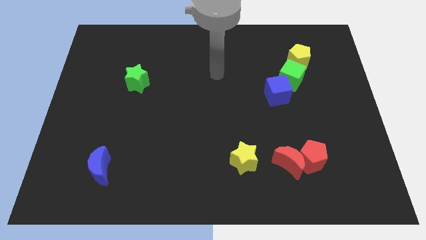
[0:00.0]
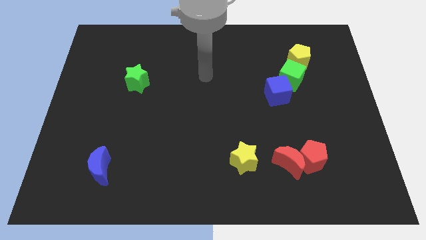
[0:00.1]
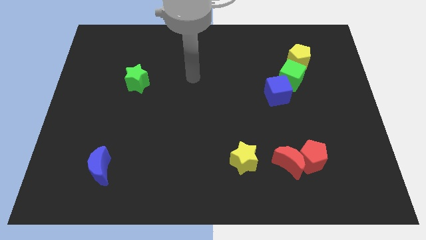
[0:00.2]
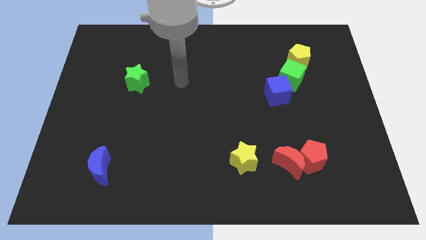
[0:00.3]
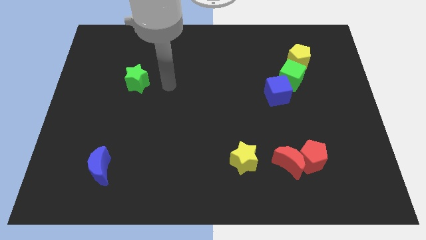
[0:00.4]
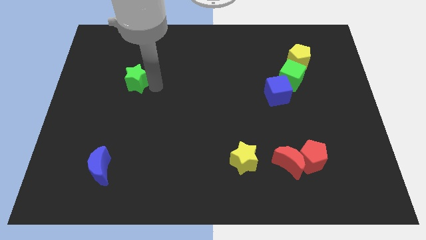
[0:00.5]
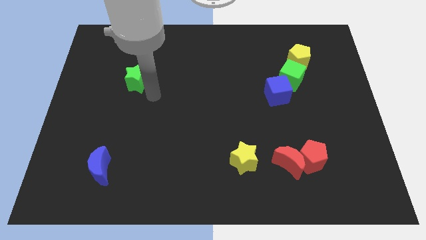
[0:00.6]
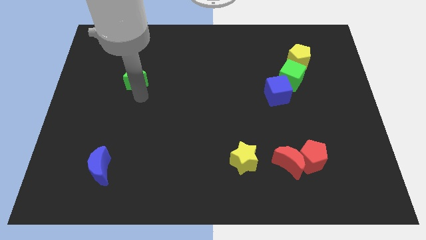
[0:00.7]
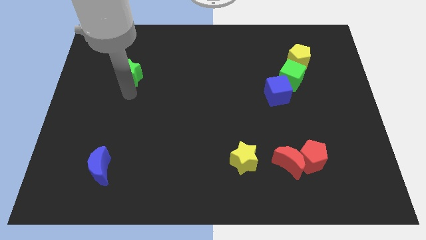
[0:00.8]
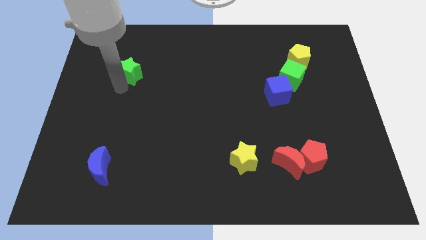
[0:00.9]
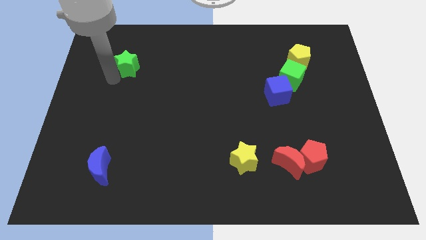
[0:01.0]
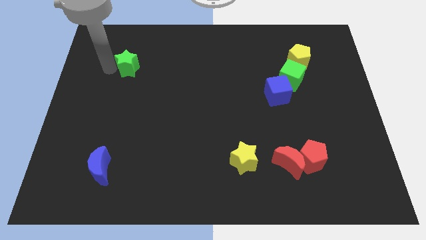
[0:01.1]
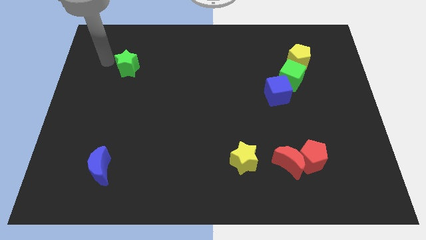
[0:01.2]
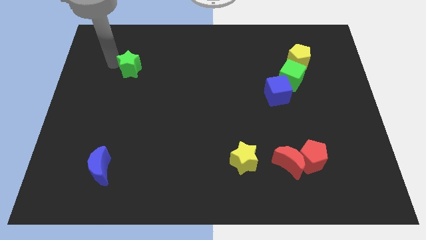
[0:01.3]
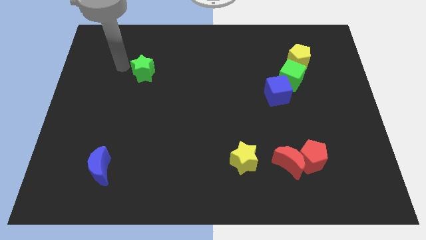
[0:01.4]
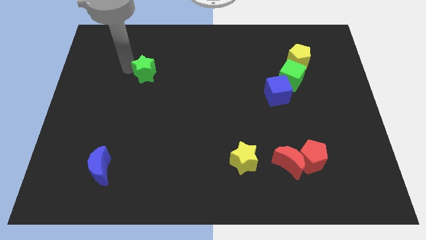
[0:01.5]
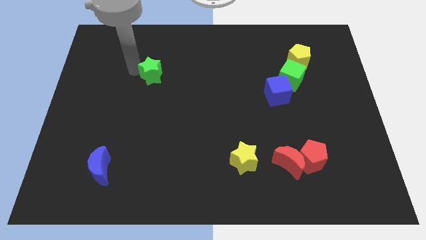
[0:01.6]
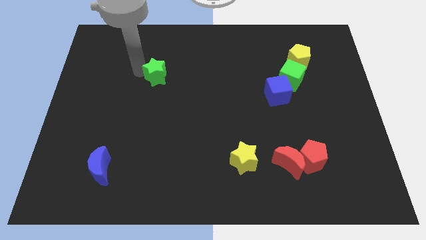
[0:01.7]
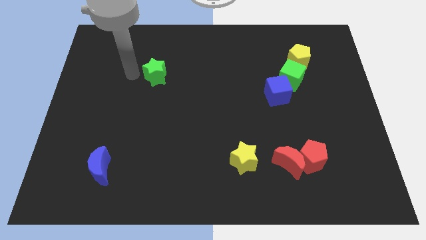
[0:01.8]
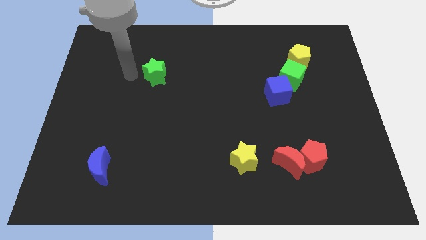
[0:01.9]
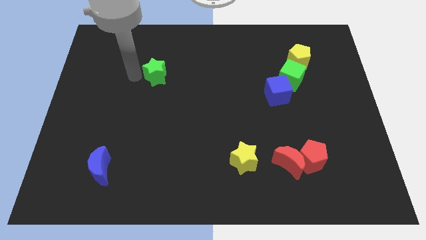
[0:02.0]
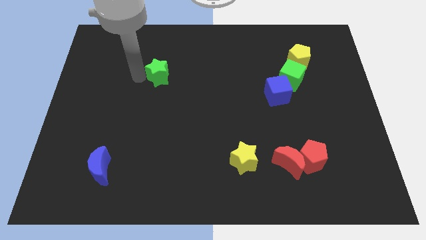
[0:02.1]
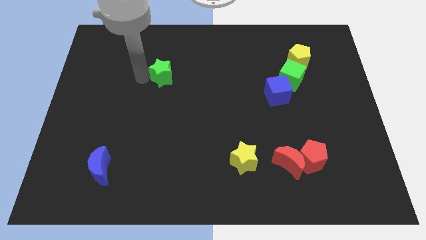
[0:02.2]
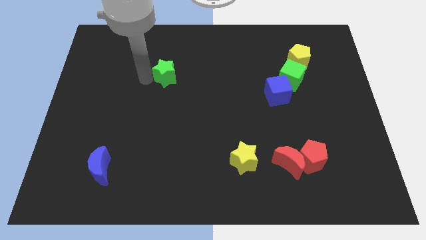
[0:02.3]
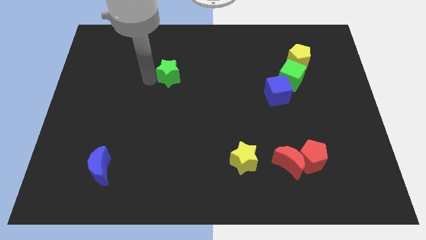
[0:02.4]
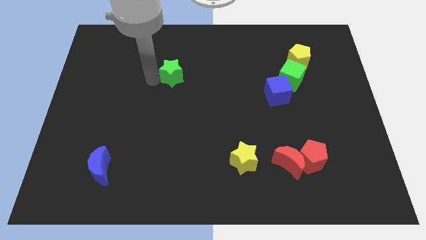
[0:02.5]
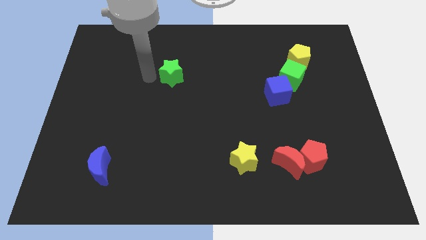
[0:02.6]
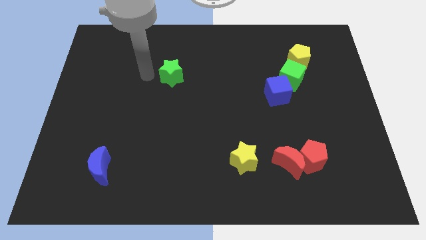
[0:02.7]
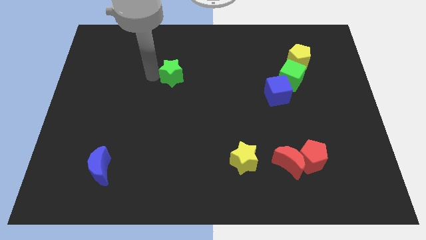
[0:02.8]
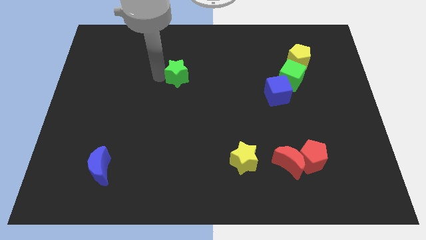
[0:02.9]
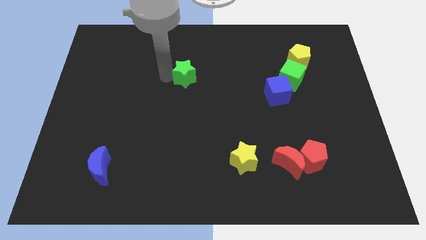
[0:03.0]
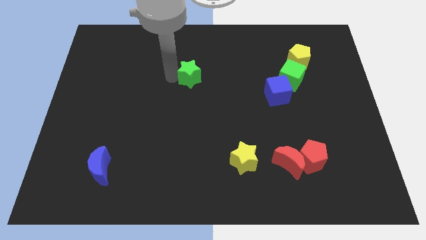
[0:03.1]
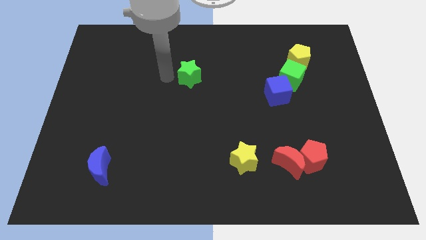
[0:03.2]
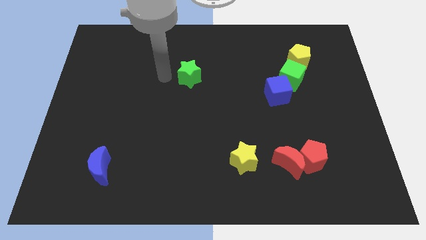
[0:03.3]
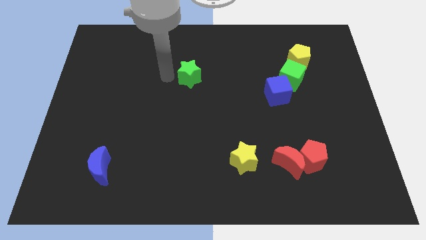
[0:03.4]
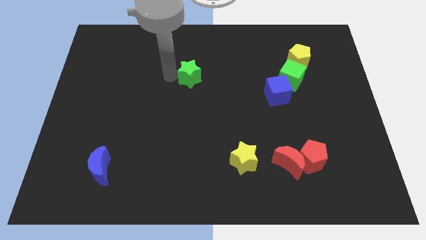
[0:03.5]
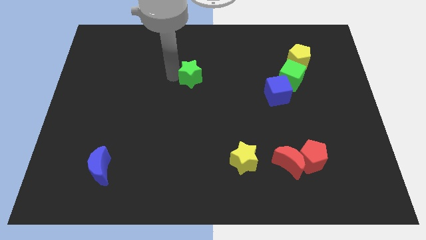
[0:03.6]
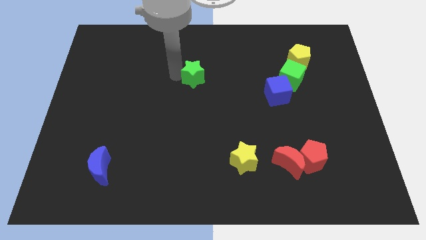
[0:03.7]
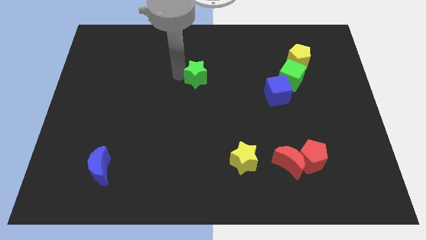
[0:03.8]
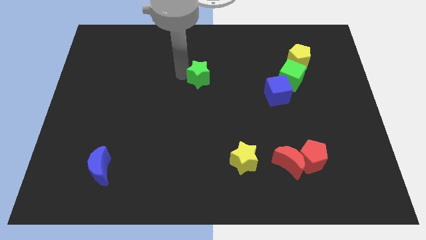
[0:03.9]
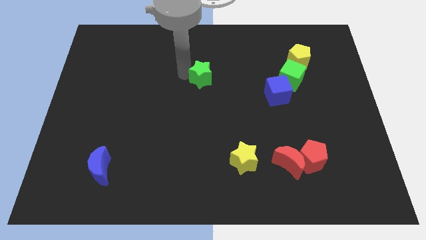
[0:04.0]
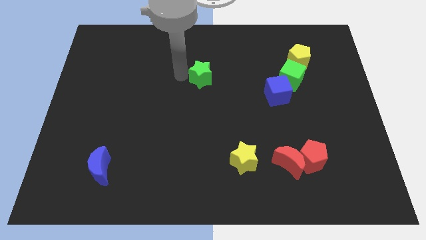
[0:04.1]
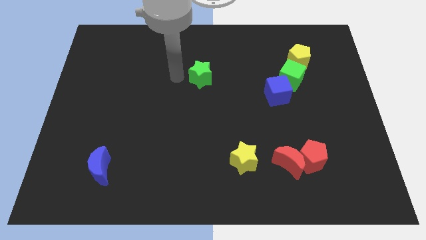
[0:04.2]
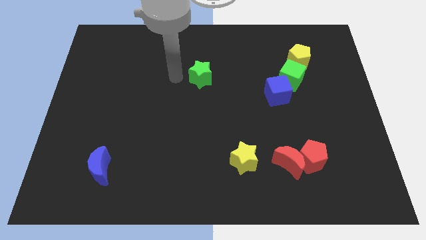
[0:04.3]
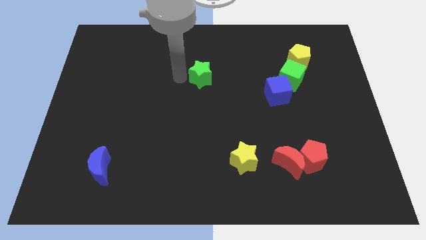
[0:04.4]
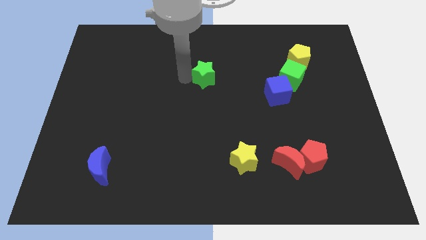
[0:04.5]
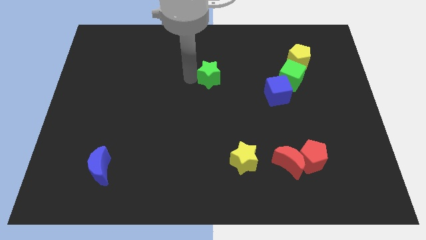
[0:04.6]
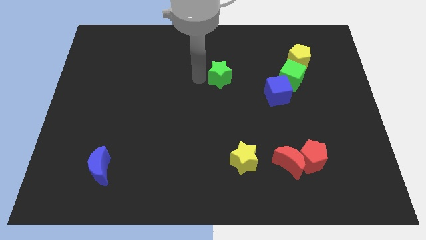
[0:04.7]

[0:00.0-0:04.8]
slide the green star right

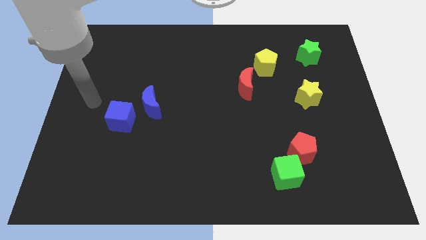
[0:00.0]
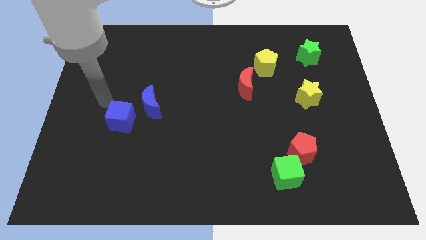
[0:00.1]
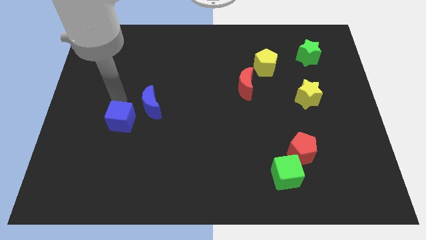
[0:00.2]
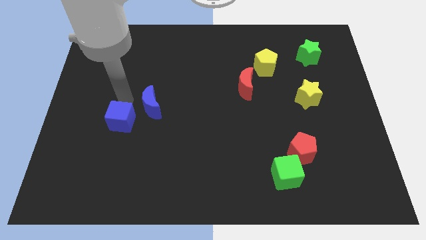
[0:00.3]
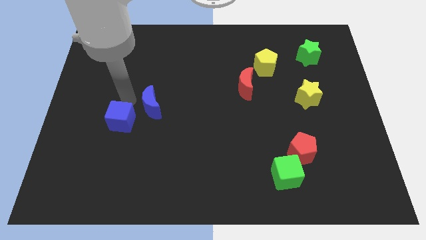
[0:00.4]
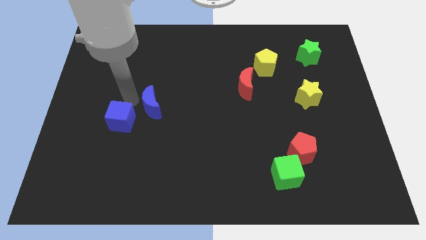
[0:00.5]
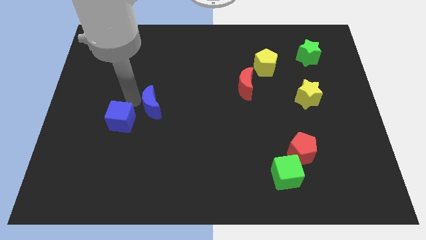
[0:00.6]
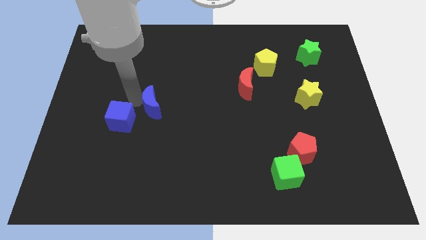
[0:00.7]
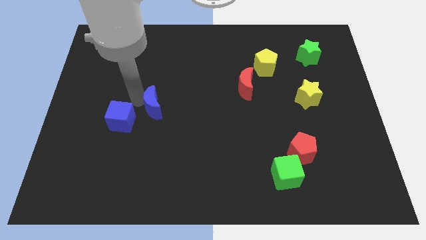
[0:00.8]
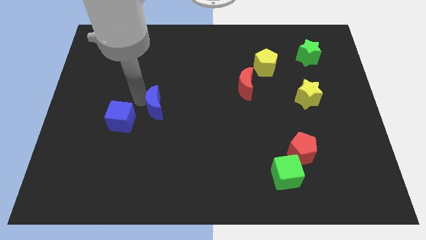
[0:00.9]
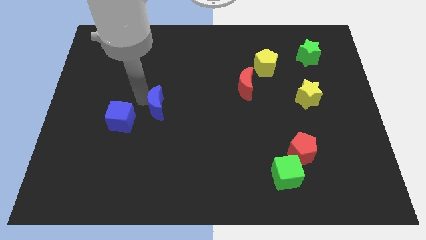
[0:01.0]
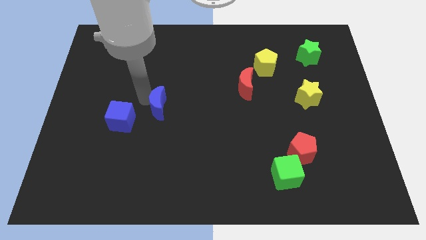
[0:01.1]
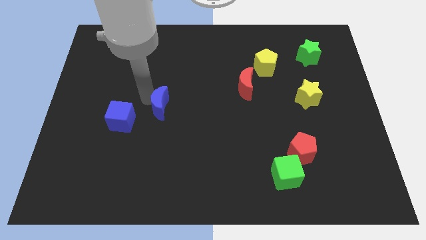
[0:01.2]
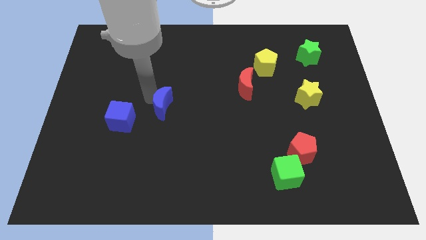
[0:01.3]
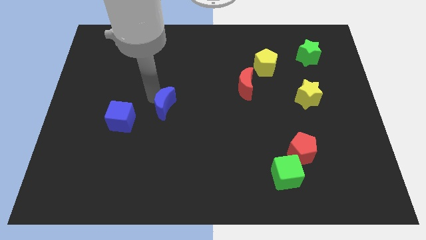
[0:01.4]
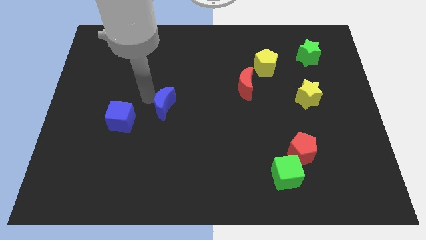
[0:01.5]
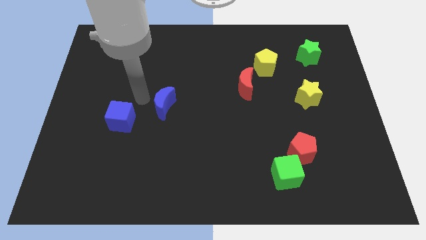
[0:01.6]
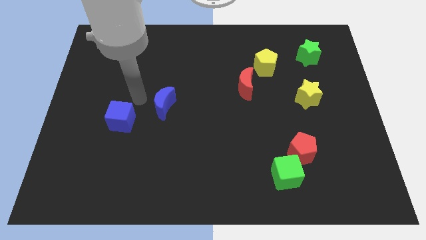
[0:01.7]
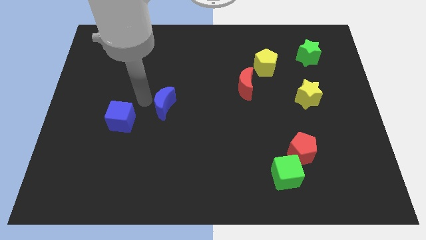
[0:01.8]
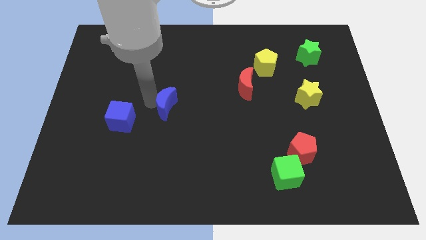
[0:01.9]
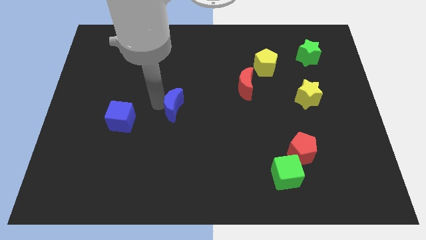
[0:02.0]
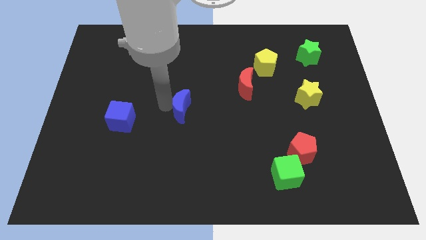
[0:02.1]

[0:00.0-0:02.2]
slightly slide the blue moon right

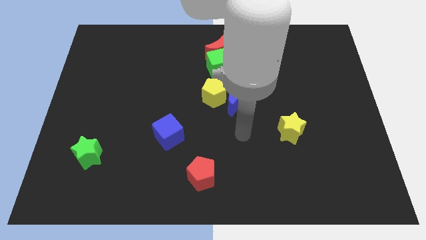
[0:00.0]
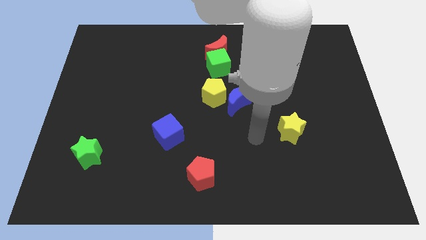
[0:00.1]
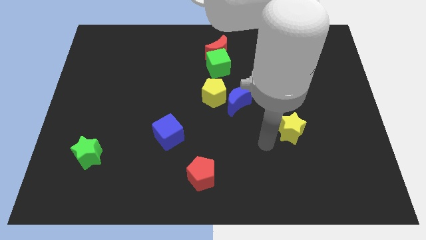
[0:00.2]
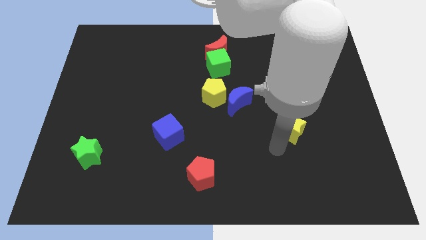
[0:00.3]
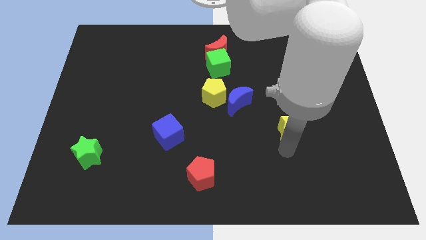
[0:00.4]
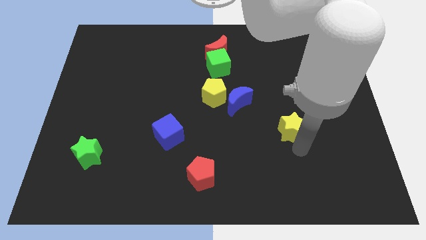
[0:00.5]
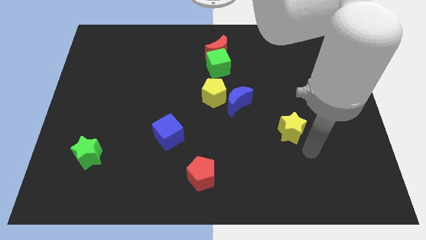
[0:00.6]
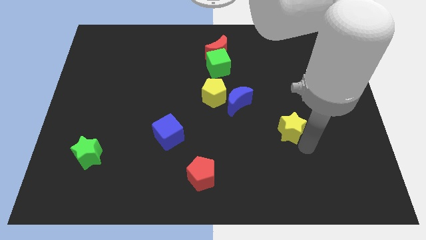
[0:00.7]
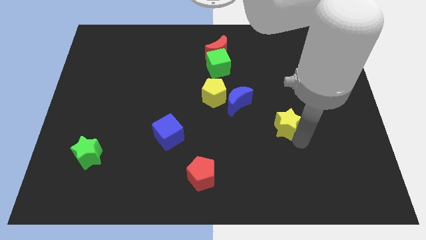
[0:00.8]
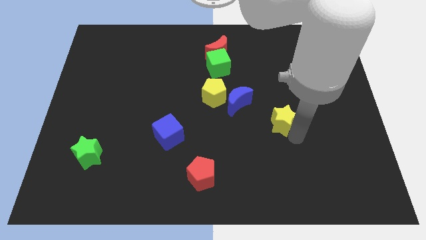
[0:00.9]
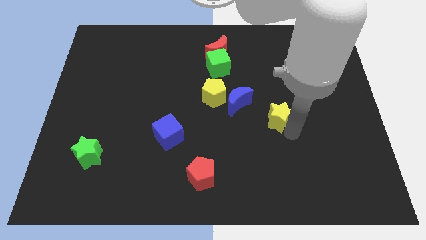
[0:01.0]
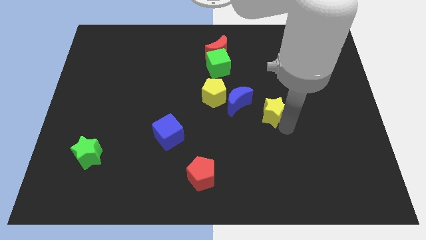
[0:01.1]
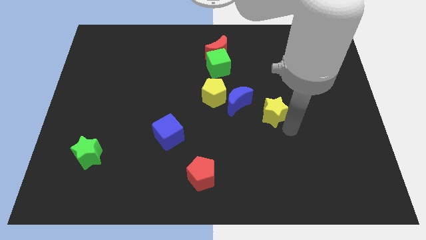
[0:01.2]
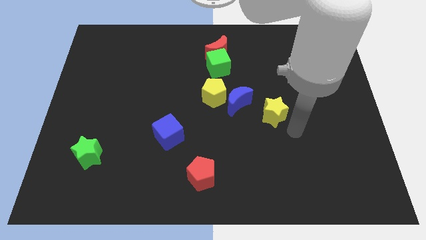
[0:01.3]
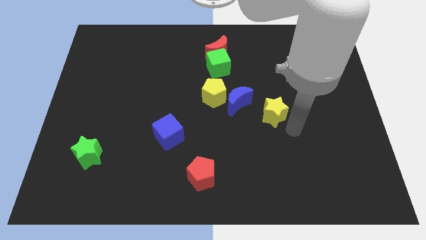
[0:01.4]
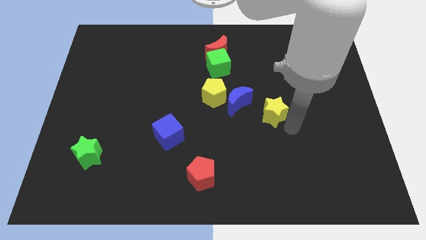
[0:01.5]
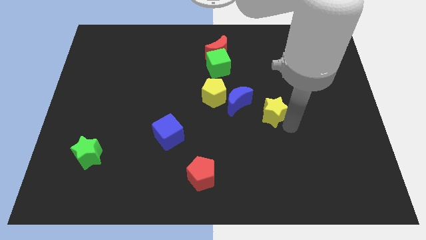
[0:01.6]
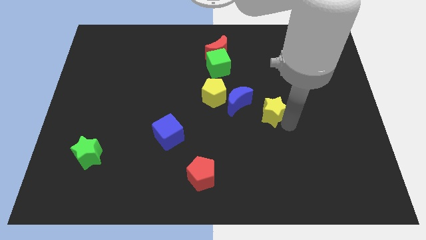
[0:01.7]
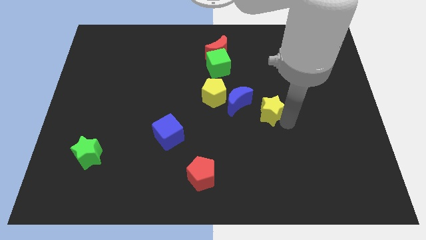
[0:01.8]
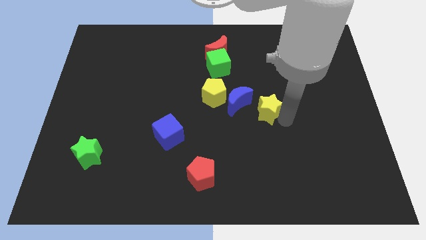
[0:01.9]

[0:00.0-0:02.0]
slightly move the yellow star diagonally upwards and to the left
